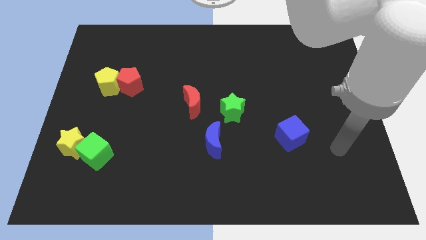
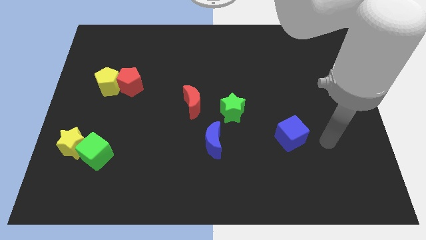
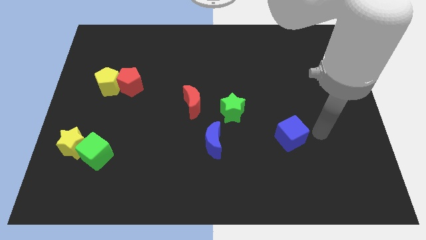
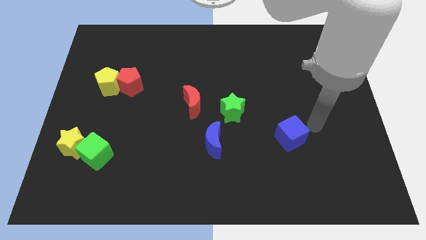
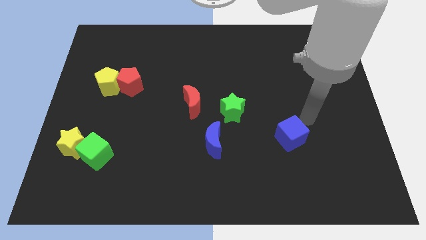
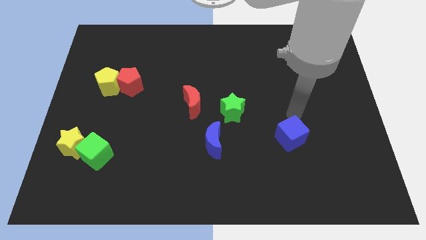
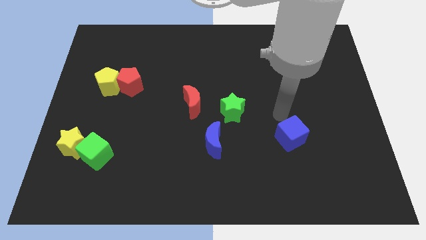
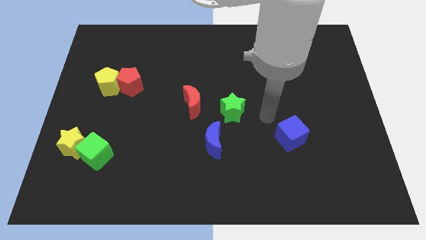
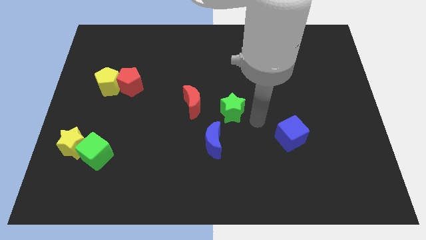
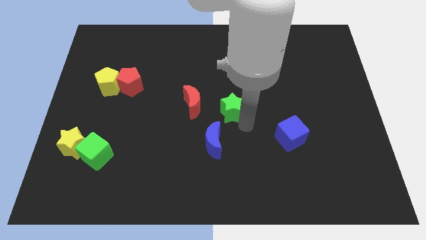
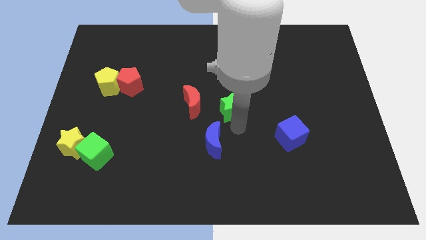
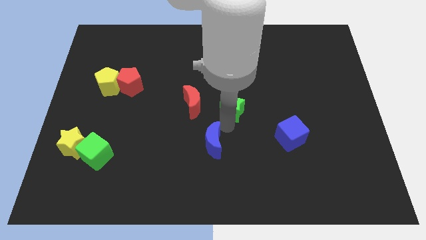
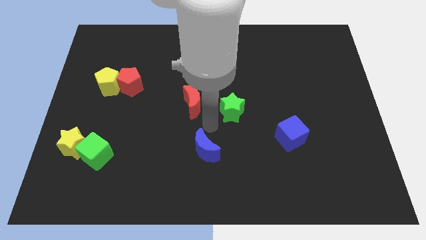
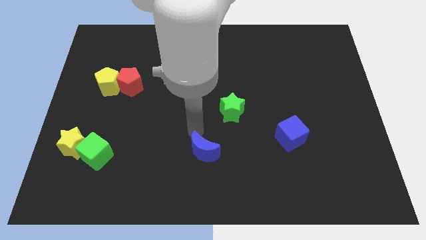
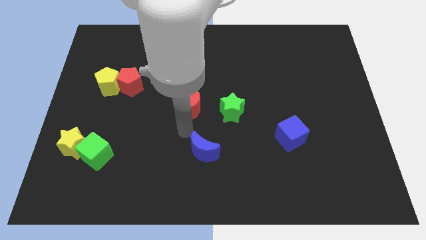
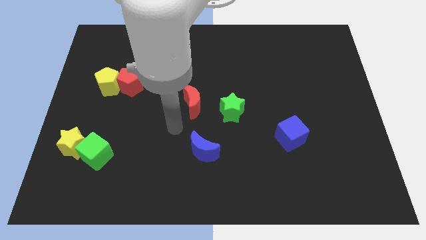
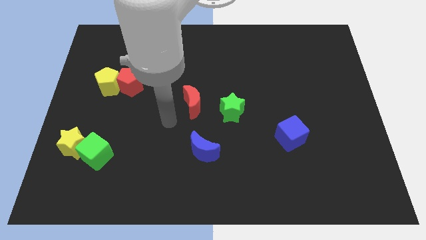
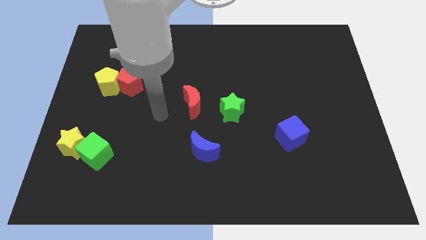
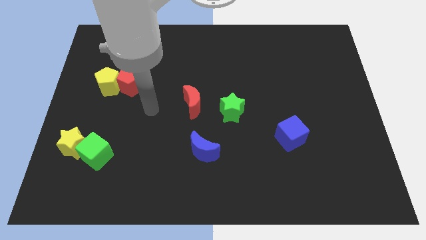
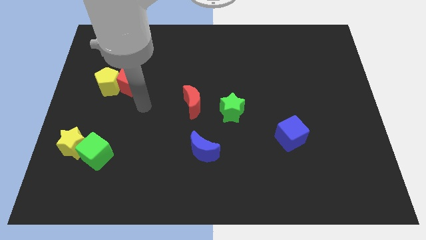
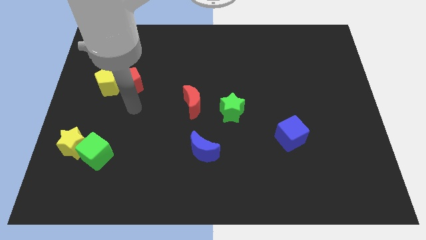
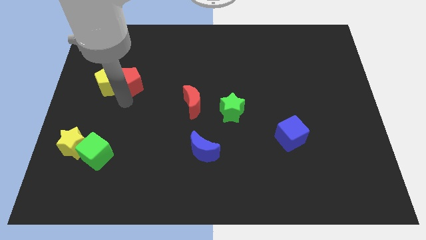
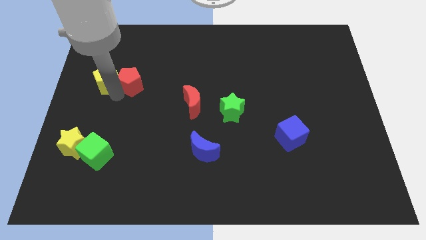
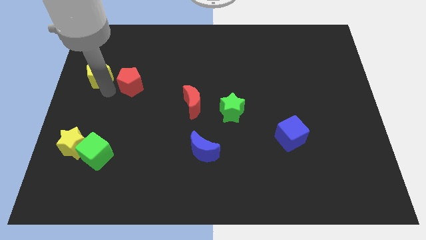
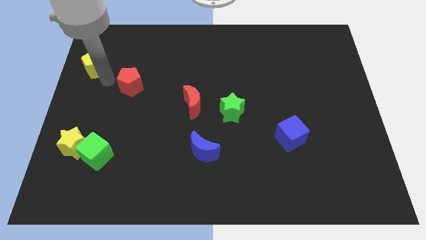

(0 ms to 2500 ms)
separate the red pentagon from the yellow pentagon

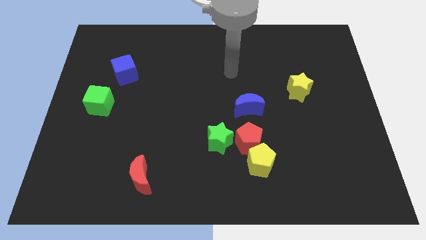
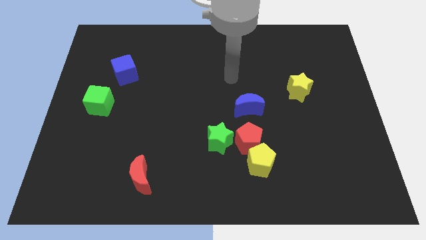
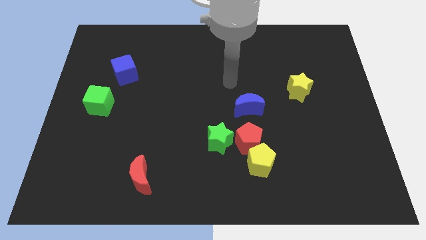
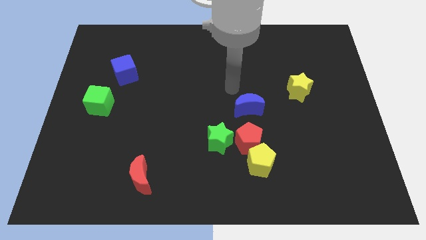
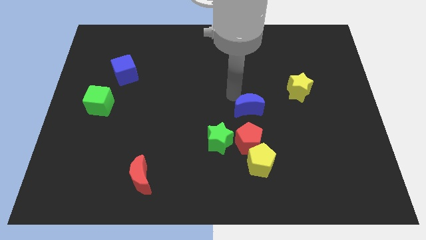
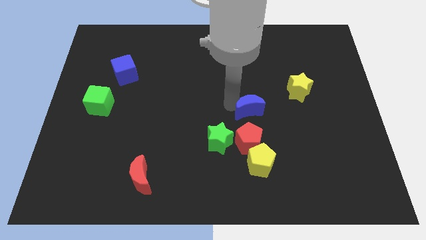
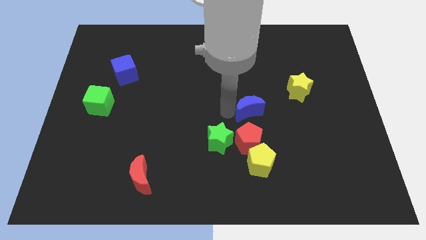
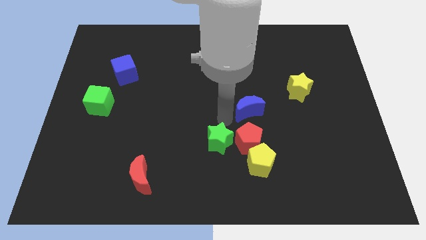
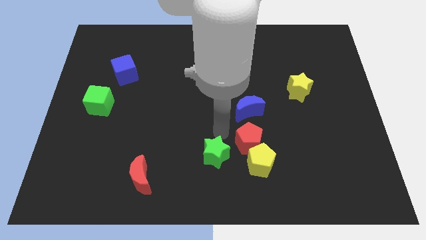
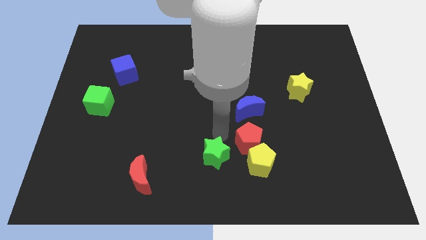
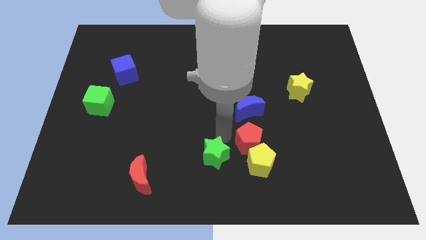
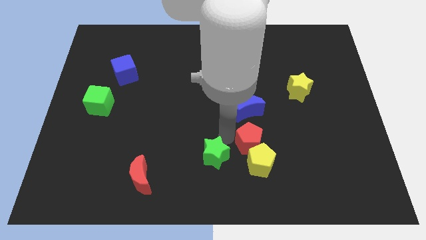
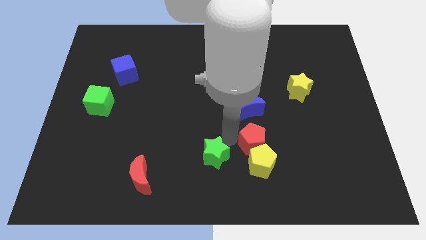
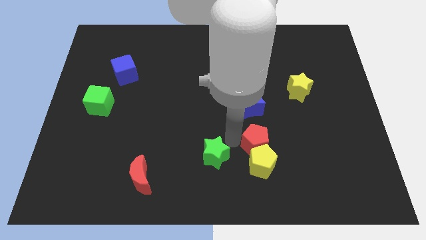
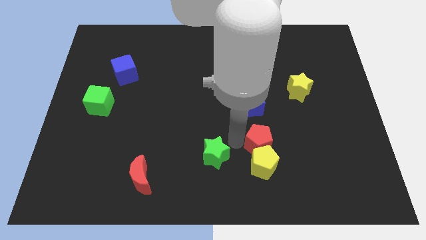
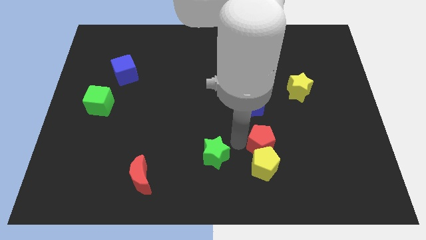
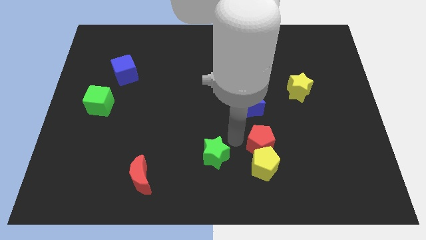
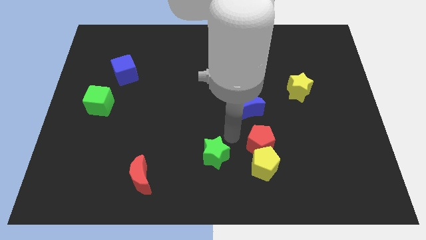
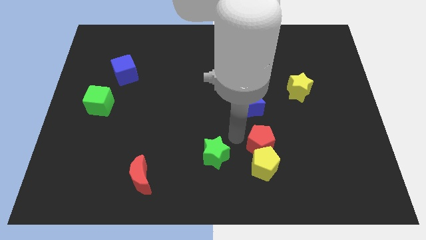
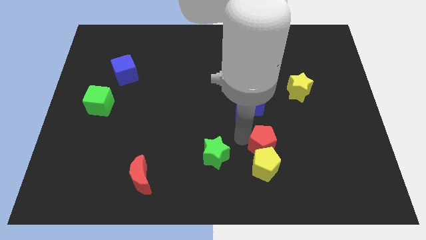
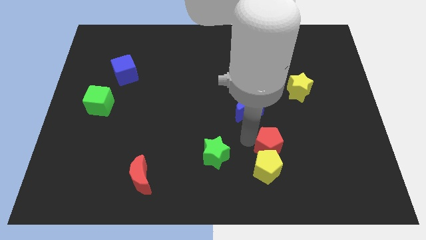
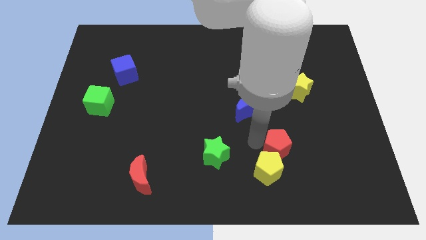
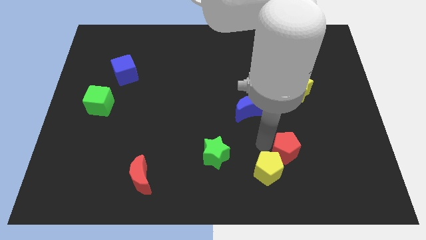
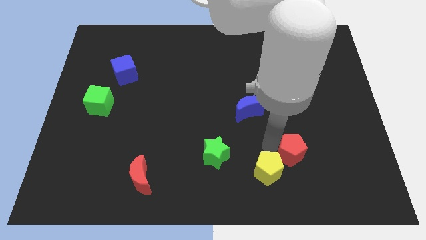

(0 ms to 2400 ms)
pull the red pentagon apart from the group

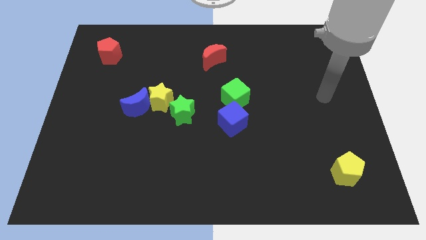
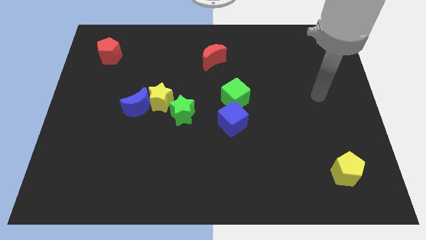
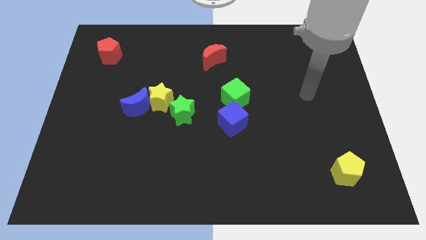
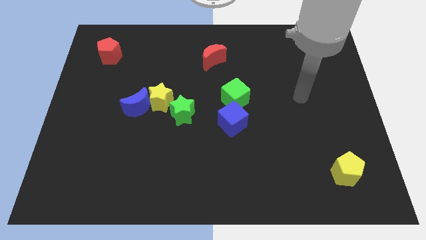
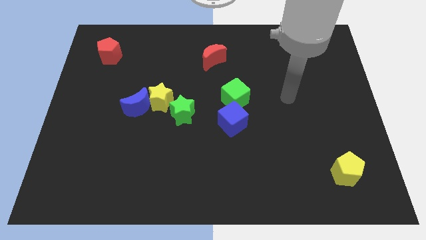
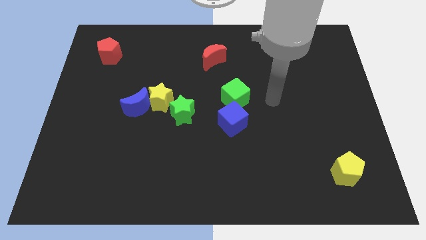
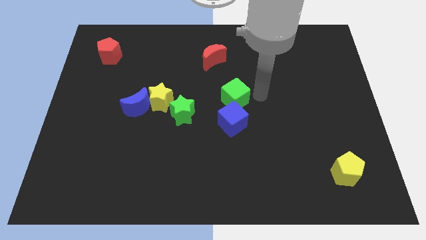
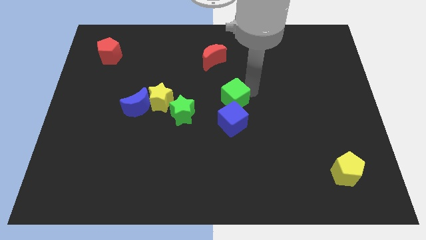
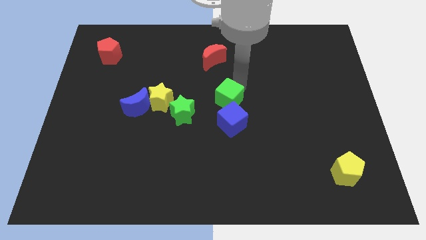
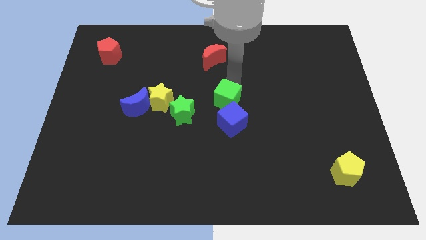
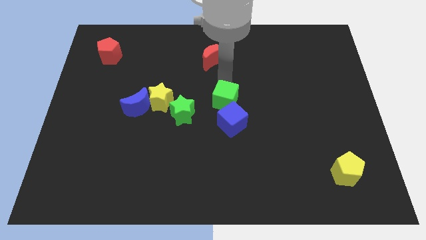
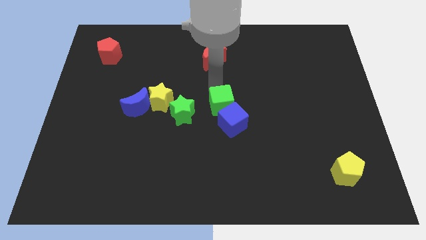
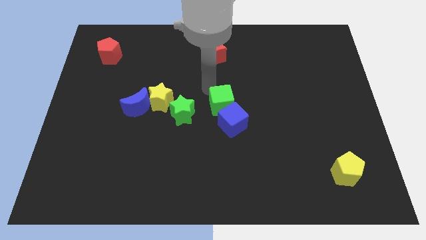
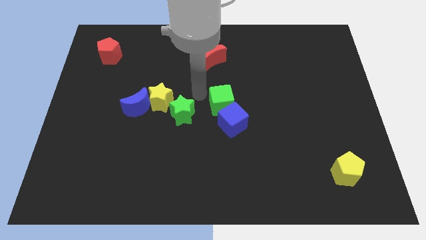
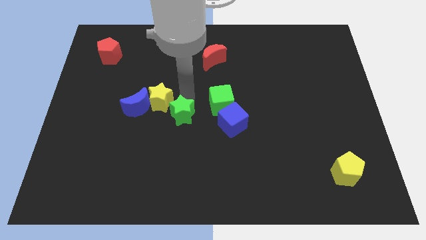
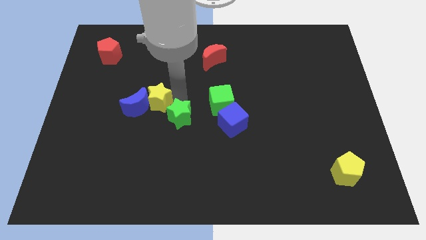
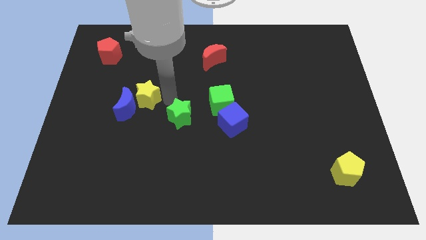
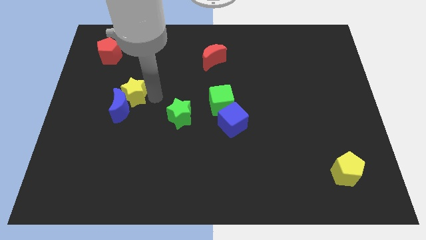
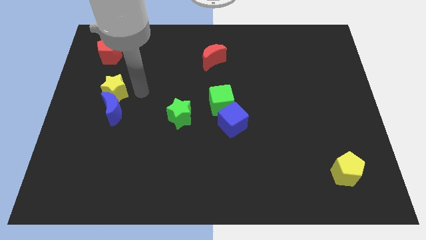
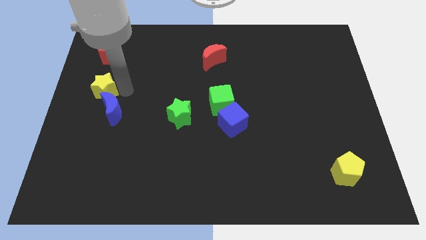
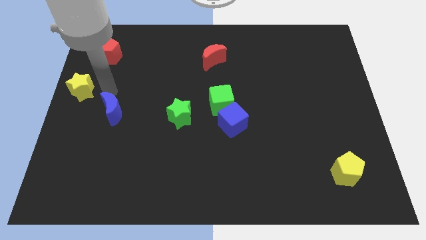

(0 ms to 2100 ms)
separate the blue moon from the yellow star

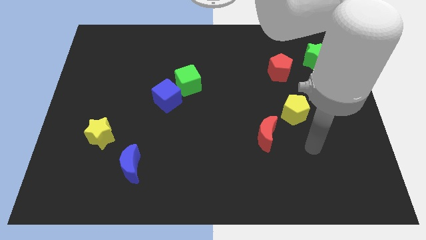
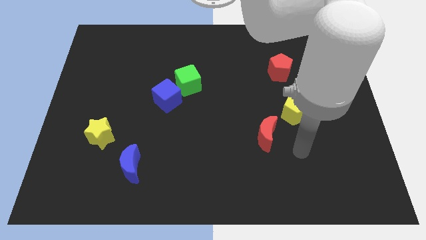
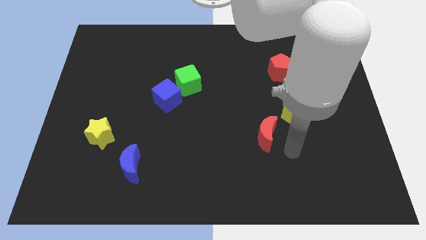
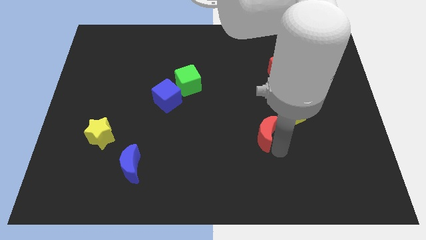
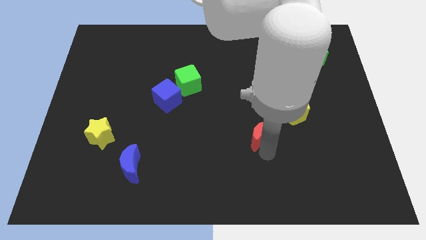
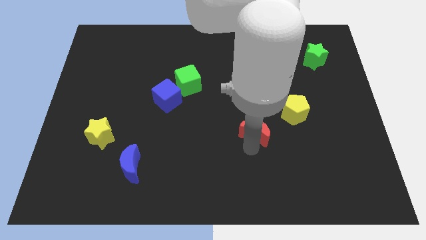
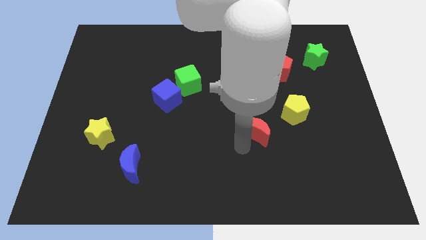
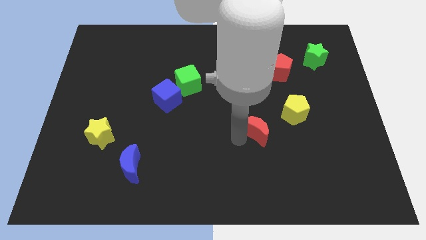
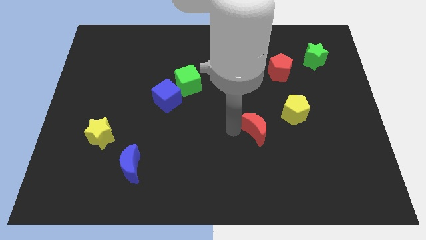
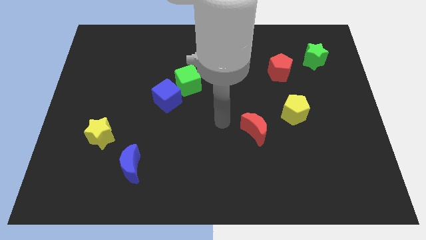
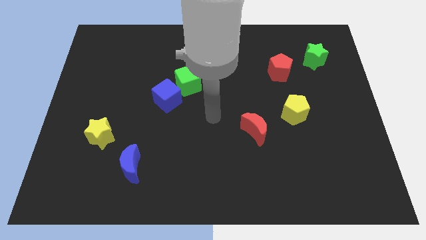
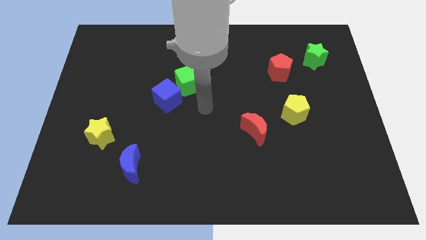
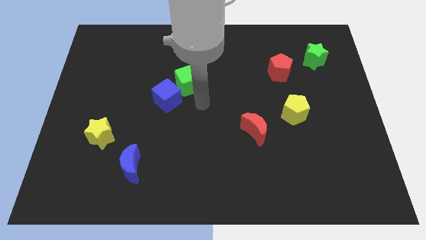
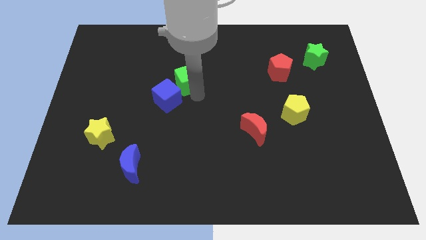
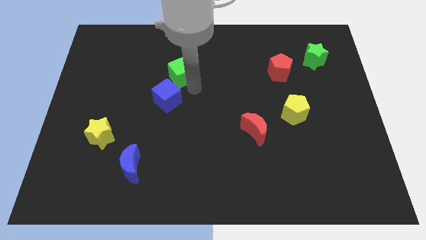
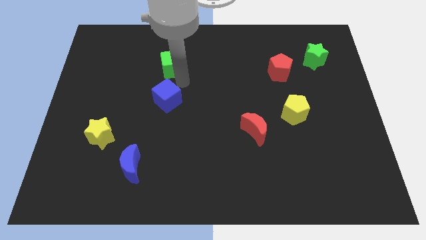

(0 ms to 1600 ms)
pull the blue cube apart from the green cube

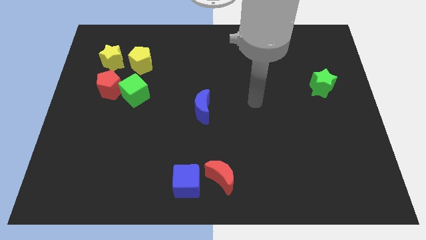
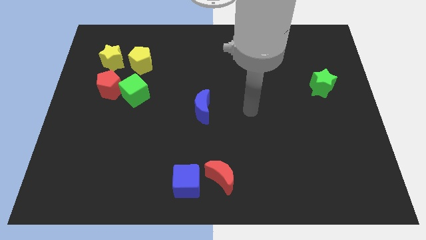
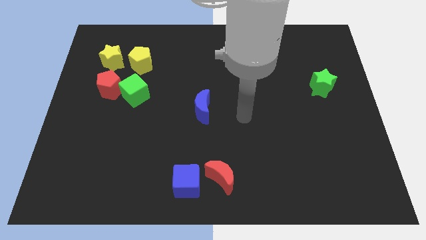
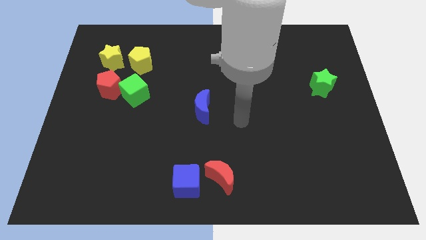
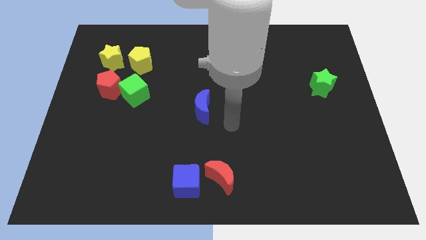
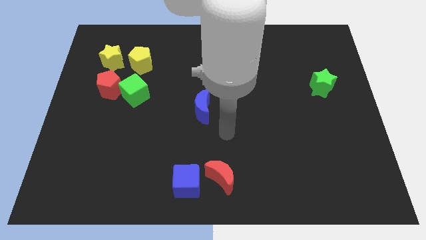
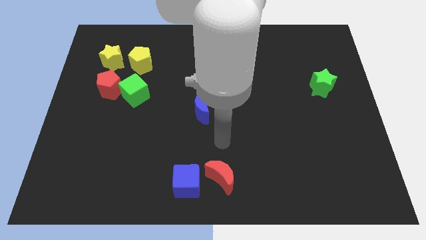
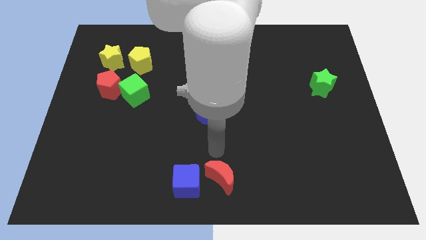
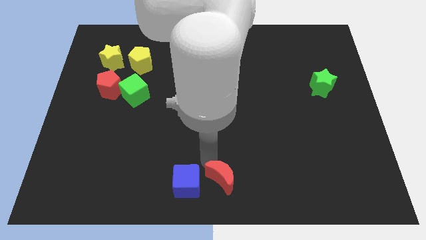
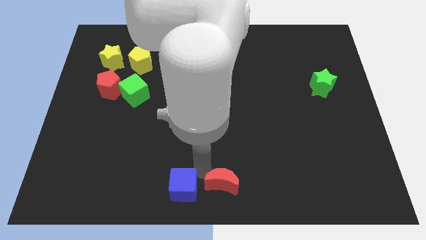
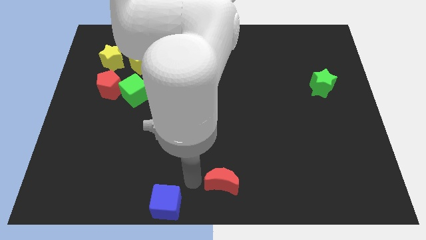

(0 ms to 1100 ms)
separate the red moon from the blue cube
